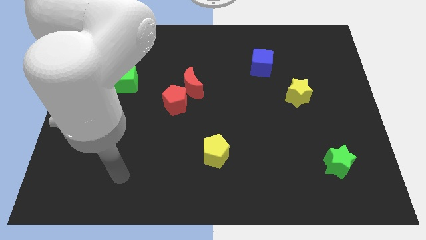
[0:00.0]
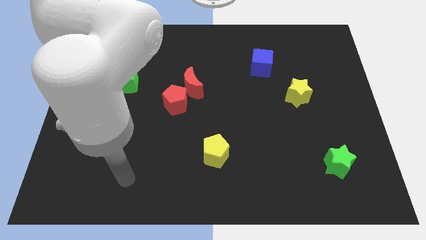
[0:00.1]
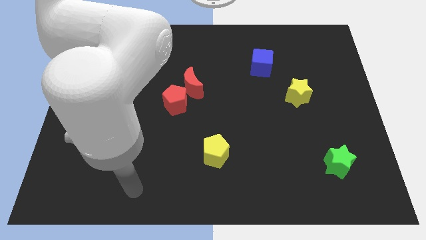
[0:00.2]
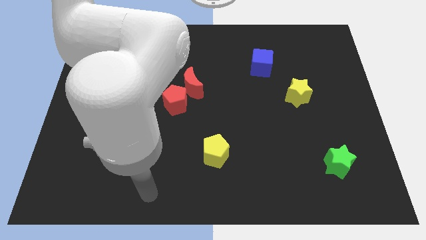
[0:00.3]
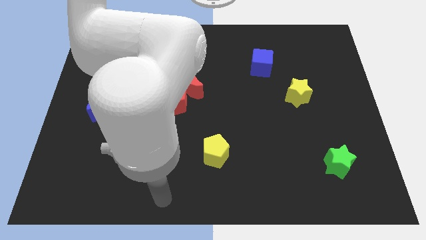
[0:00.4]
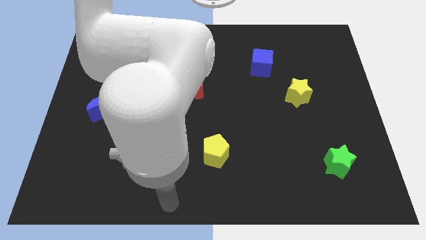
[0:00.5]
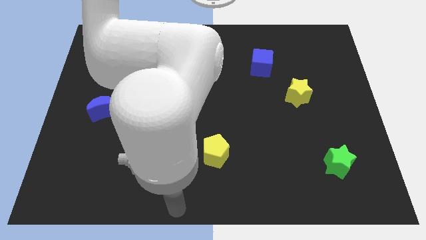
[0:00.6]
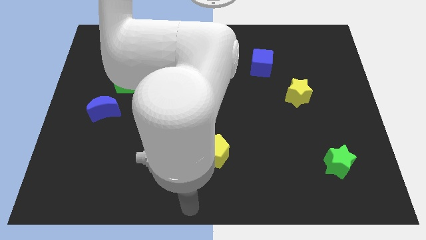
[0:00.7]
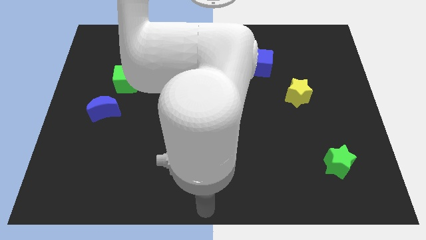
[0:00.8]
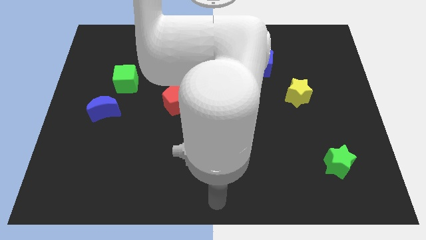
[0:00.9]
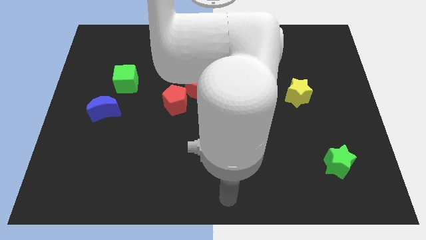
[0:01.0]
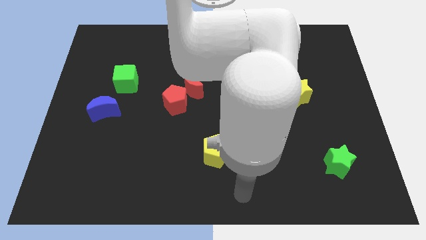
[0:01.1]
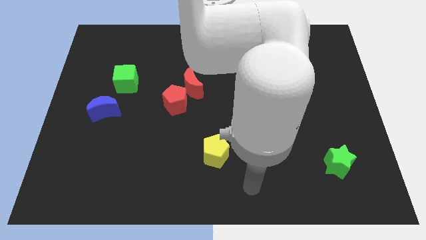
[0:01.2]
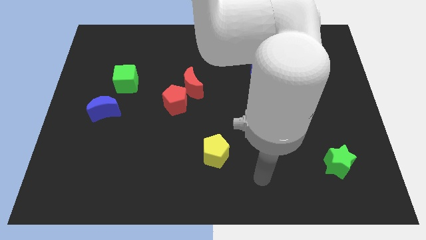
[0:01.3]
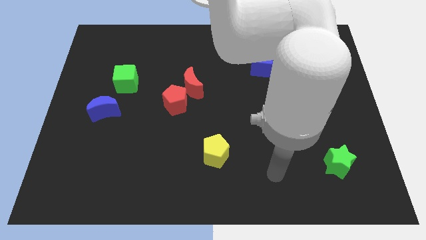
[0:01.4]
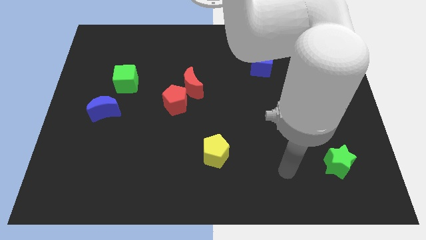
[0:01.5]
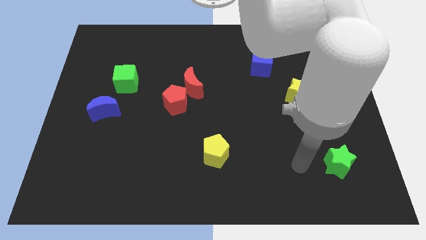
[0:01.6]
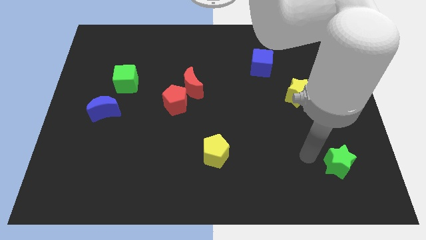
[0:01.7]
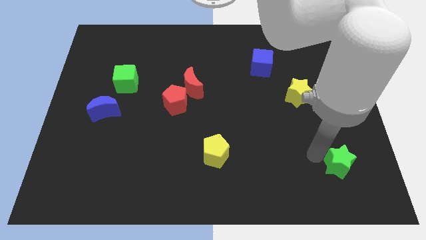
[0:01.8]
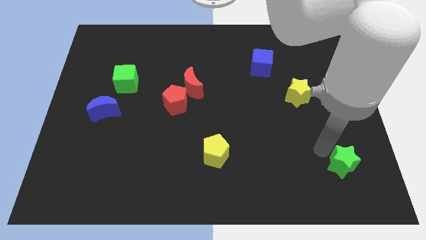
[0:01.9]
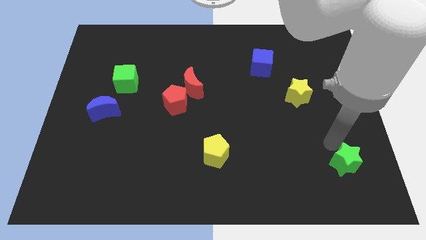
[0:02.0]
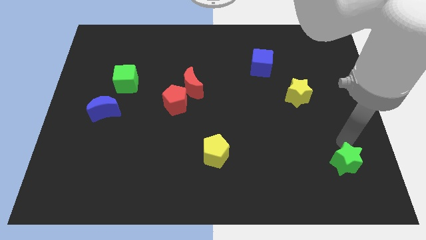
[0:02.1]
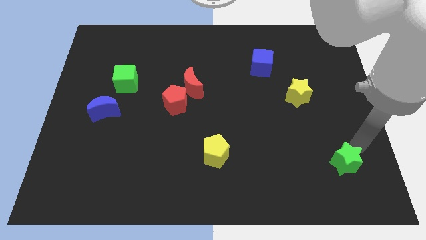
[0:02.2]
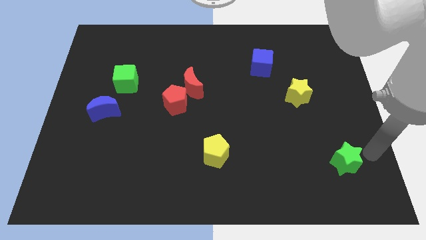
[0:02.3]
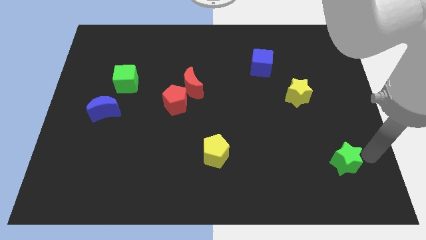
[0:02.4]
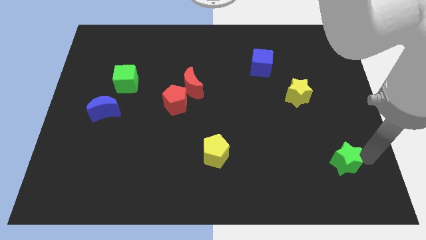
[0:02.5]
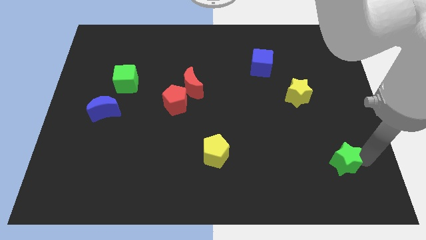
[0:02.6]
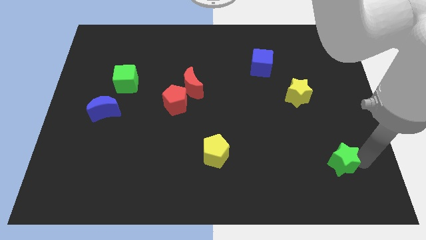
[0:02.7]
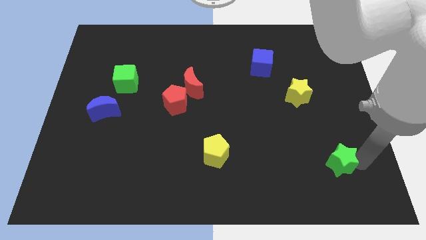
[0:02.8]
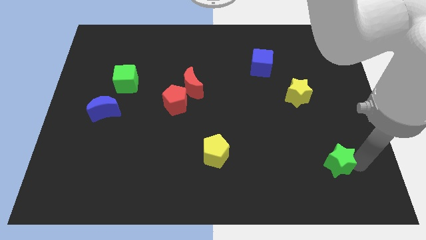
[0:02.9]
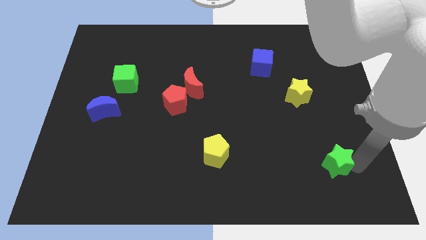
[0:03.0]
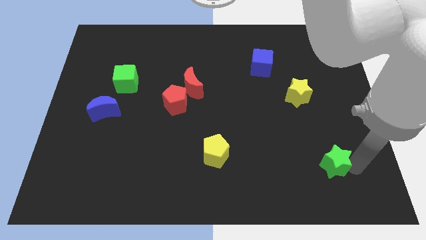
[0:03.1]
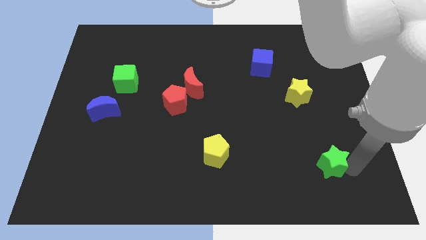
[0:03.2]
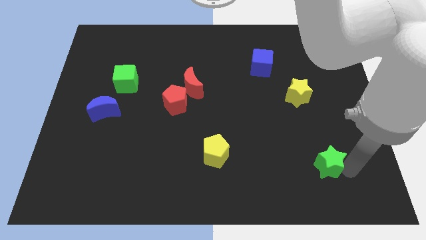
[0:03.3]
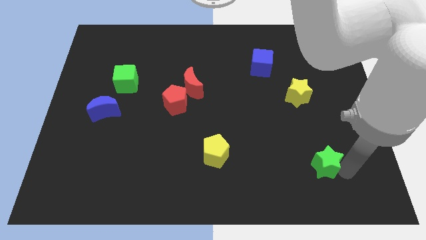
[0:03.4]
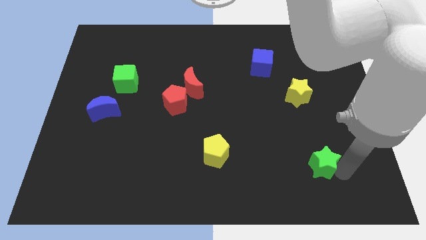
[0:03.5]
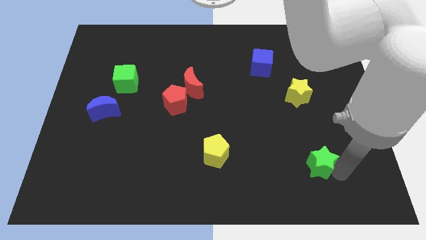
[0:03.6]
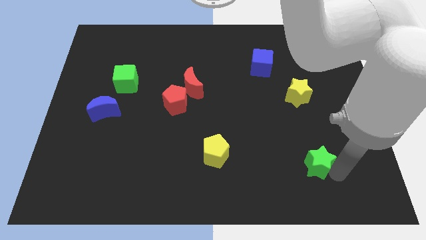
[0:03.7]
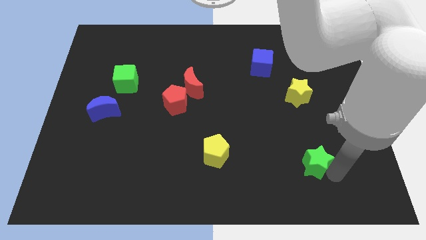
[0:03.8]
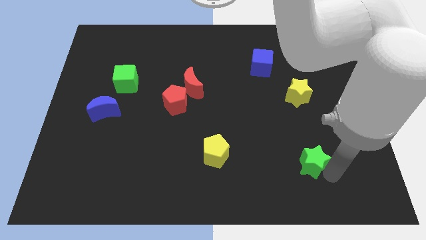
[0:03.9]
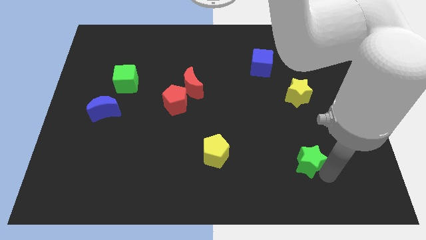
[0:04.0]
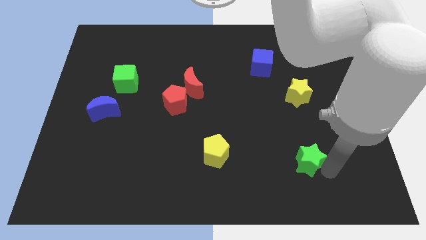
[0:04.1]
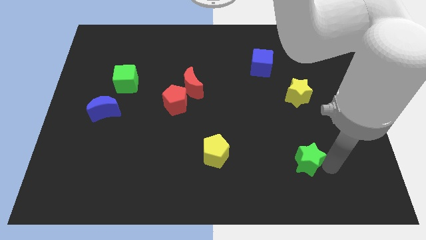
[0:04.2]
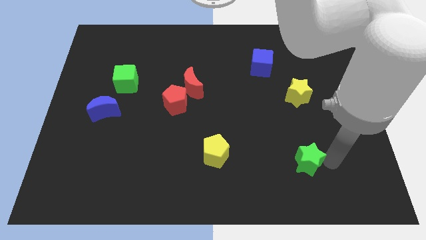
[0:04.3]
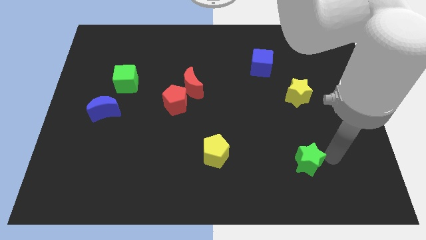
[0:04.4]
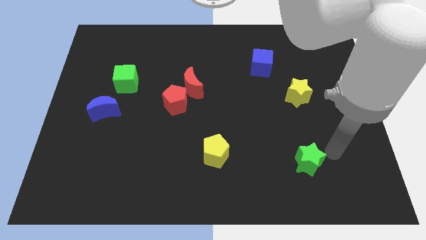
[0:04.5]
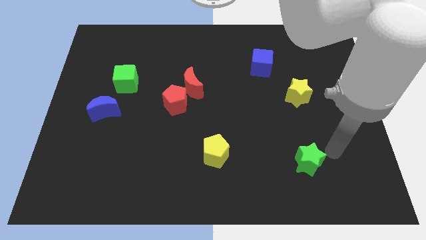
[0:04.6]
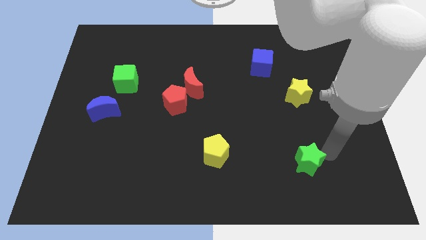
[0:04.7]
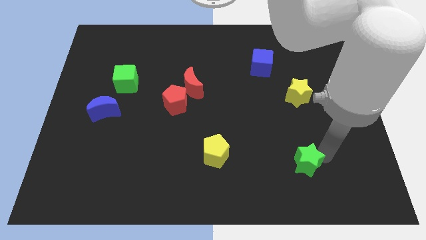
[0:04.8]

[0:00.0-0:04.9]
slightly push the green star left

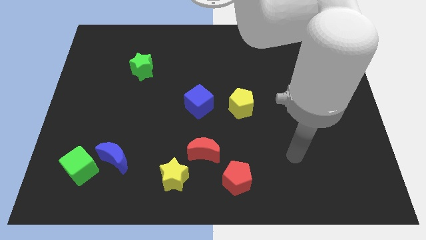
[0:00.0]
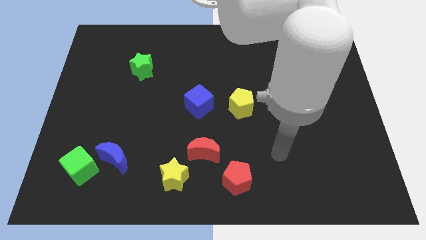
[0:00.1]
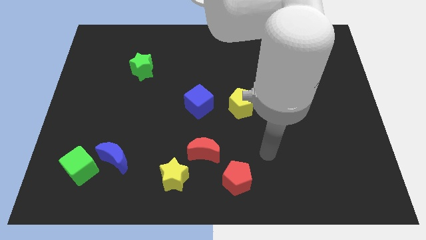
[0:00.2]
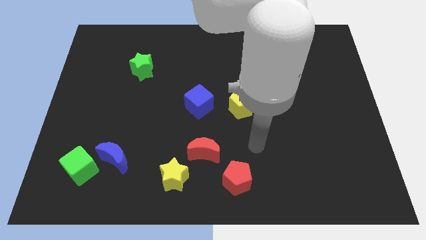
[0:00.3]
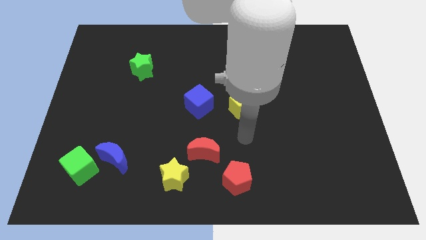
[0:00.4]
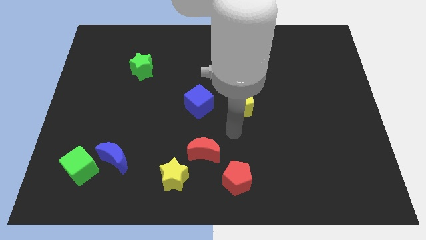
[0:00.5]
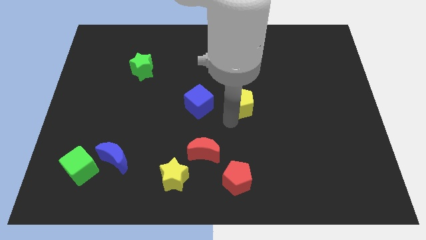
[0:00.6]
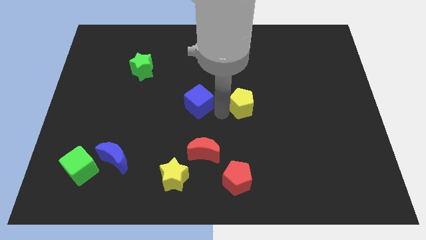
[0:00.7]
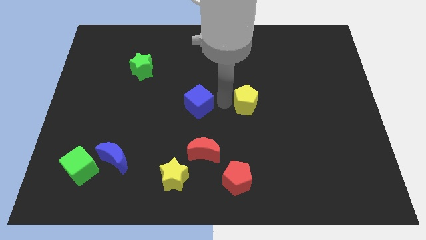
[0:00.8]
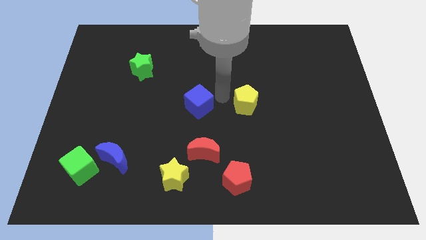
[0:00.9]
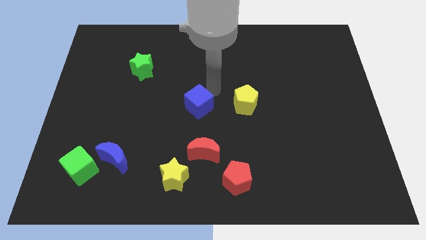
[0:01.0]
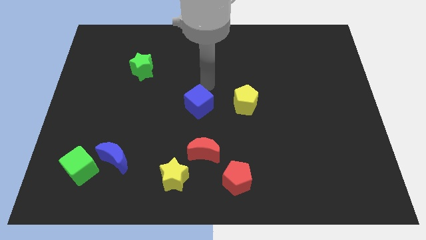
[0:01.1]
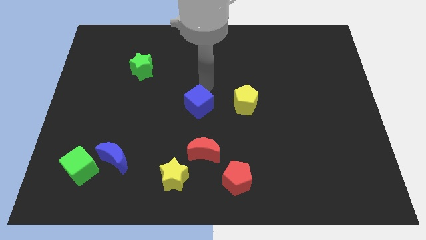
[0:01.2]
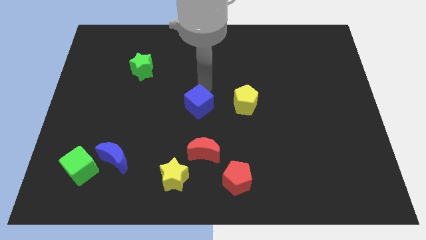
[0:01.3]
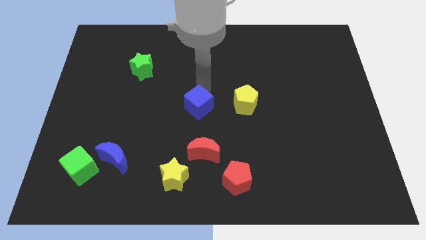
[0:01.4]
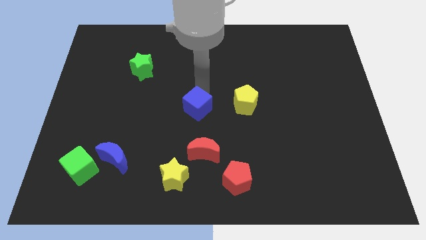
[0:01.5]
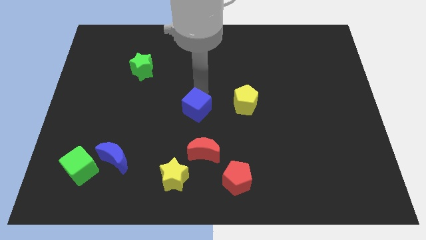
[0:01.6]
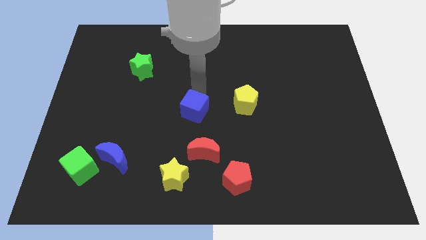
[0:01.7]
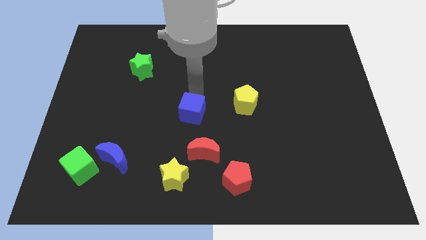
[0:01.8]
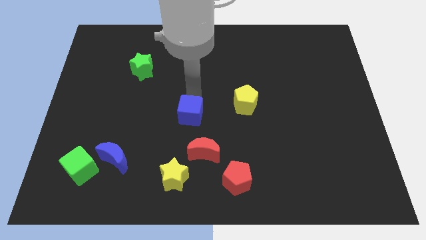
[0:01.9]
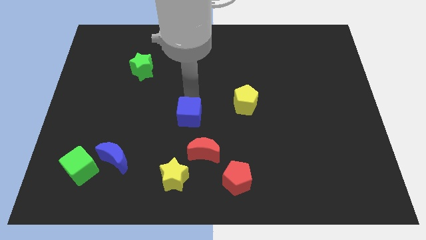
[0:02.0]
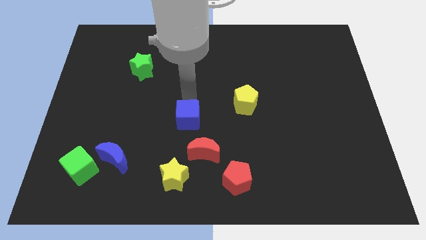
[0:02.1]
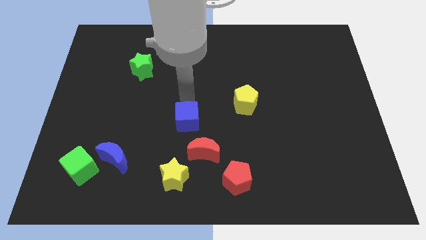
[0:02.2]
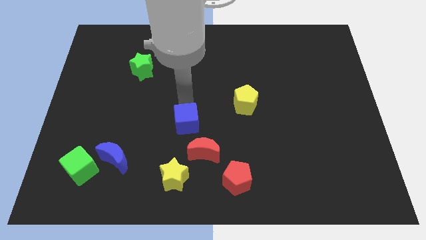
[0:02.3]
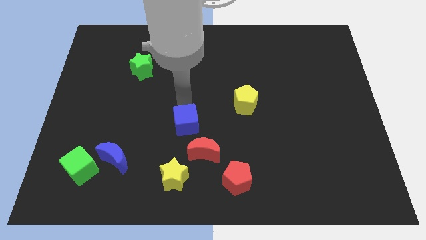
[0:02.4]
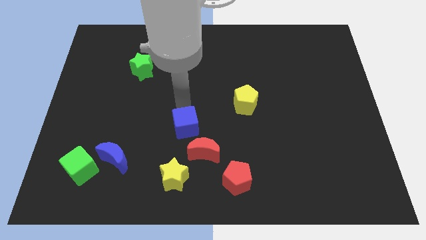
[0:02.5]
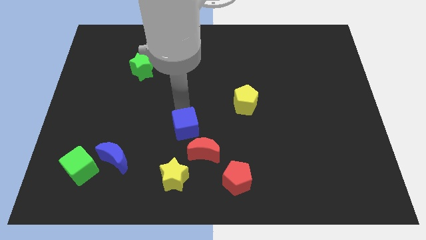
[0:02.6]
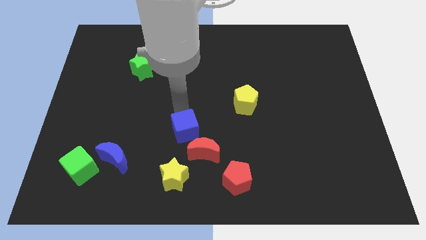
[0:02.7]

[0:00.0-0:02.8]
push the blue cube somewhat down

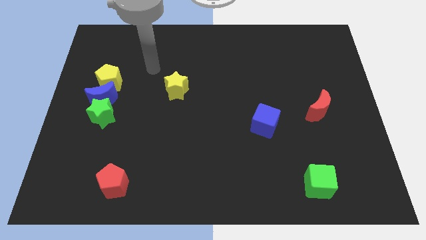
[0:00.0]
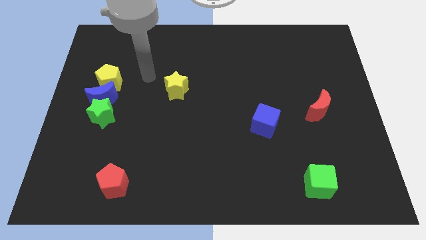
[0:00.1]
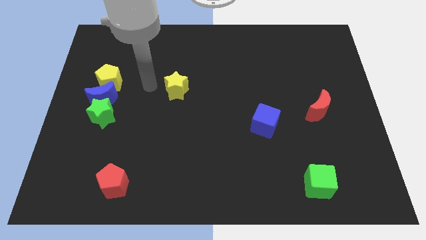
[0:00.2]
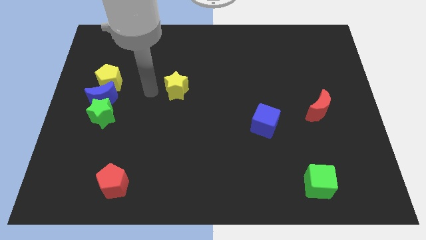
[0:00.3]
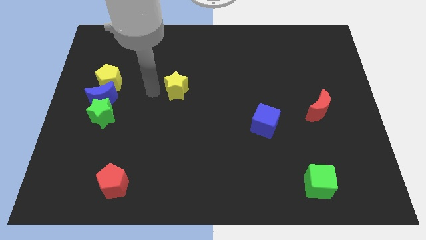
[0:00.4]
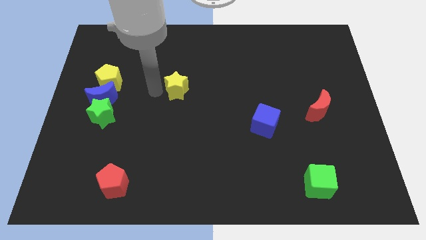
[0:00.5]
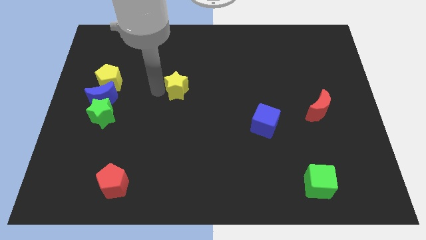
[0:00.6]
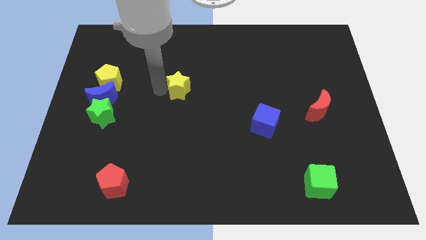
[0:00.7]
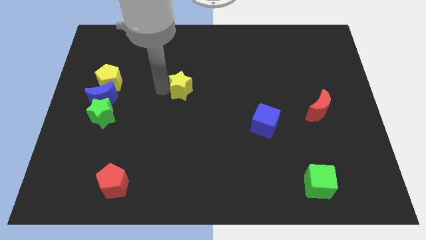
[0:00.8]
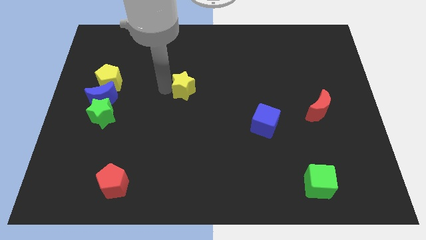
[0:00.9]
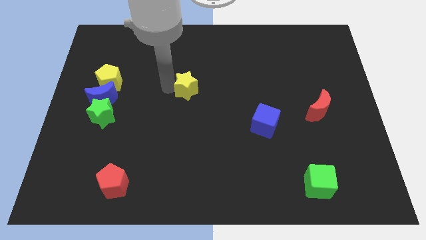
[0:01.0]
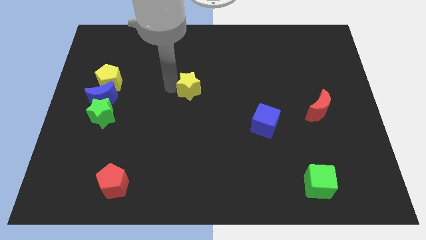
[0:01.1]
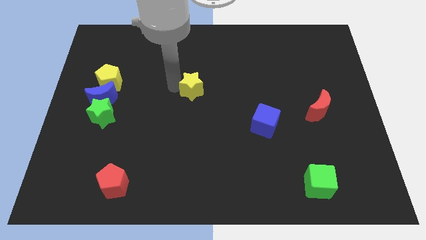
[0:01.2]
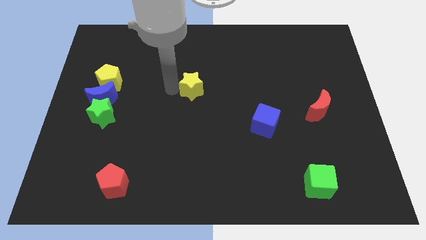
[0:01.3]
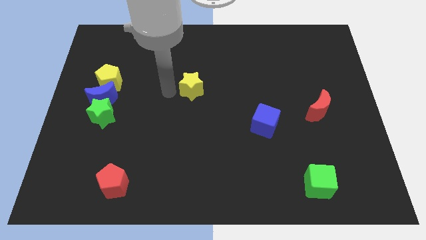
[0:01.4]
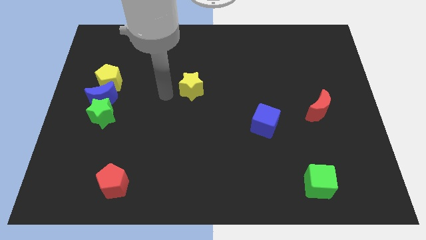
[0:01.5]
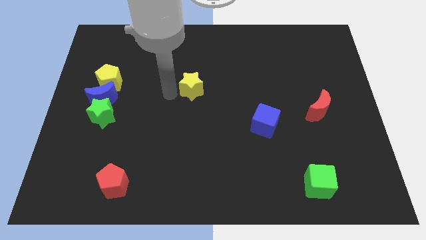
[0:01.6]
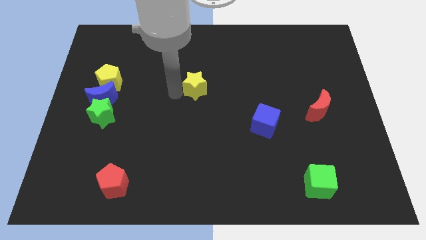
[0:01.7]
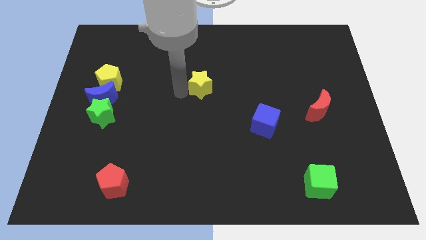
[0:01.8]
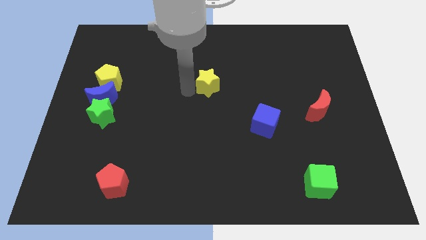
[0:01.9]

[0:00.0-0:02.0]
slightly push the yellow star to the right
